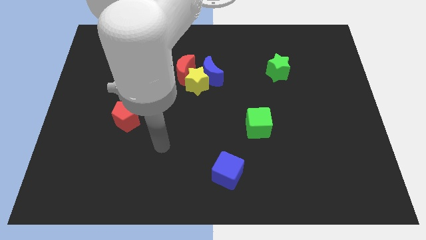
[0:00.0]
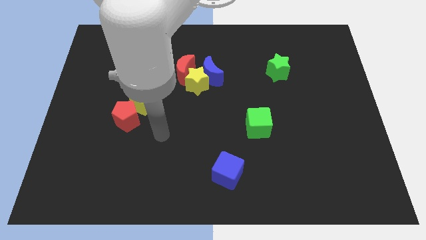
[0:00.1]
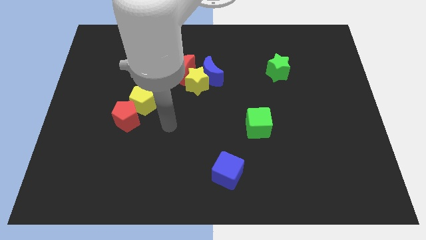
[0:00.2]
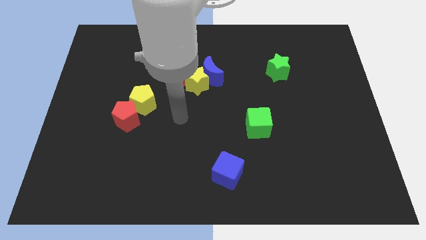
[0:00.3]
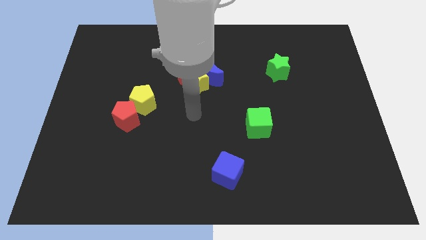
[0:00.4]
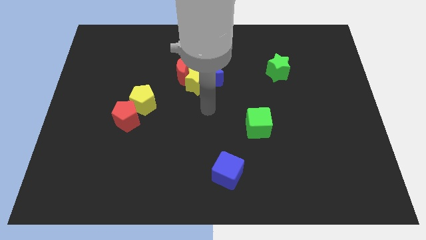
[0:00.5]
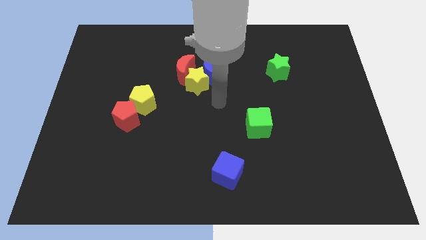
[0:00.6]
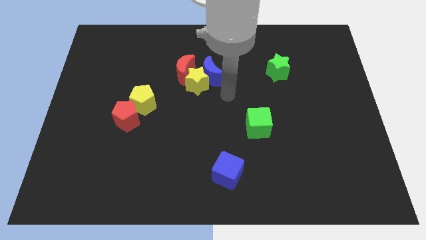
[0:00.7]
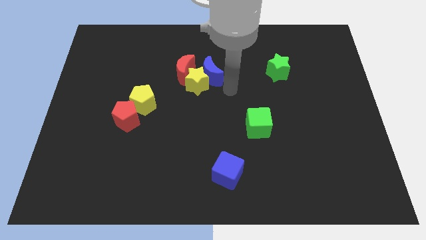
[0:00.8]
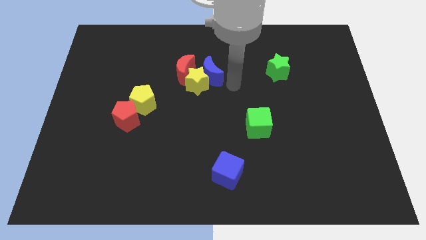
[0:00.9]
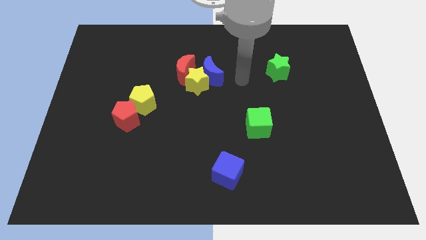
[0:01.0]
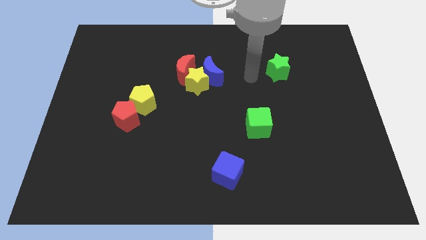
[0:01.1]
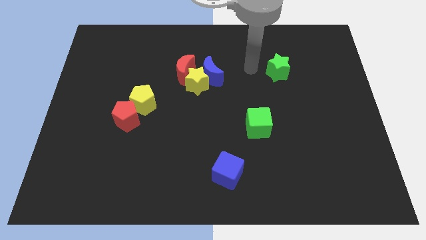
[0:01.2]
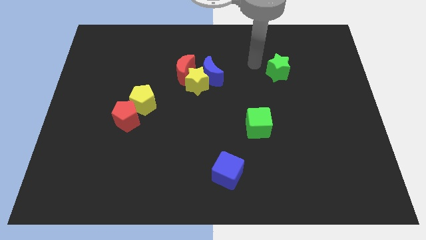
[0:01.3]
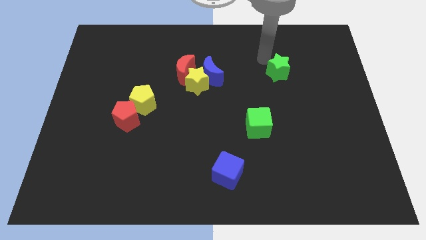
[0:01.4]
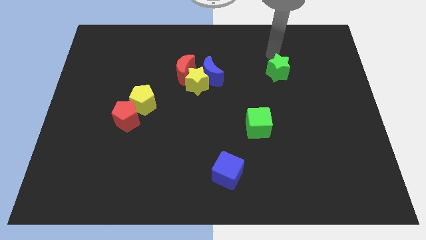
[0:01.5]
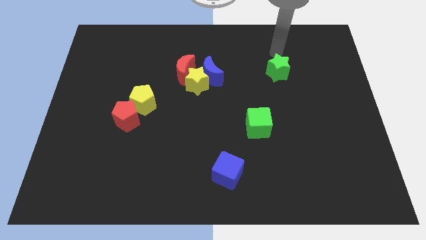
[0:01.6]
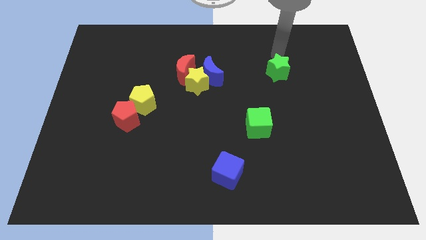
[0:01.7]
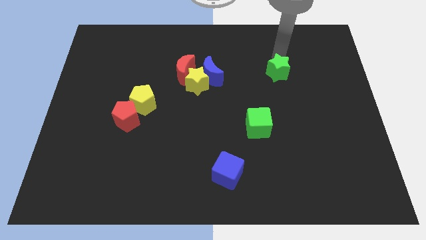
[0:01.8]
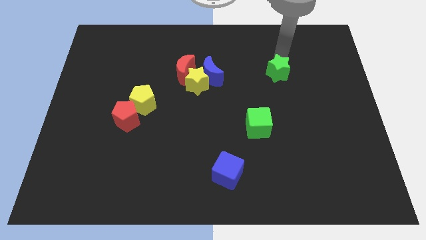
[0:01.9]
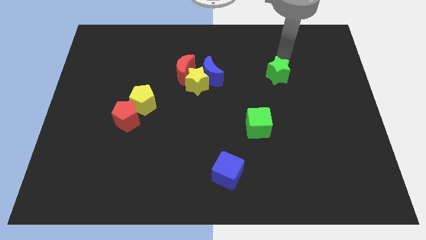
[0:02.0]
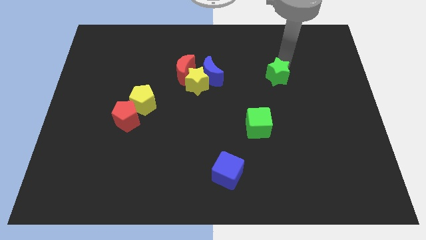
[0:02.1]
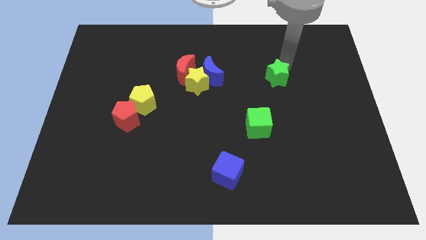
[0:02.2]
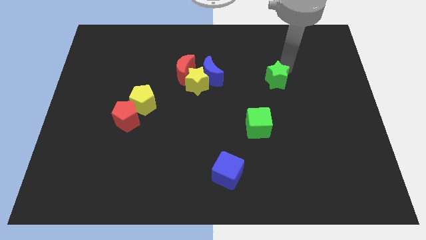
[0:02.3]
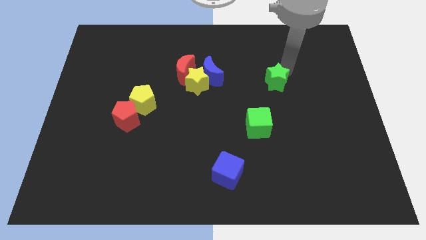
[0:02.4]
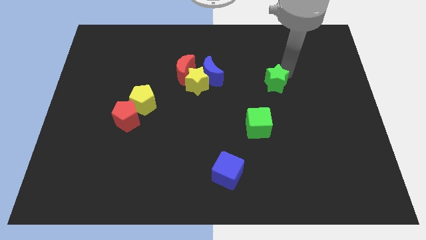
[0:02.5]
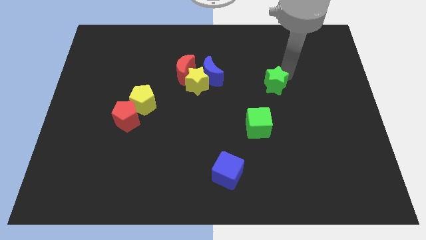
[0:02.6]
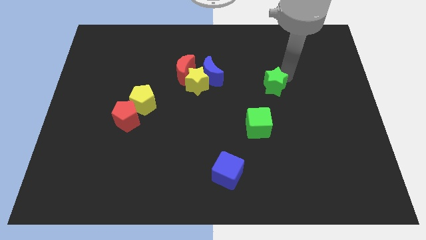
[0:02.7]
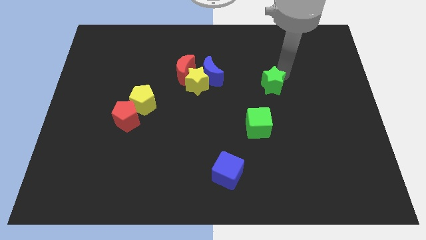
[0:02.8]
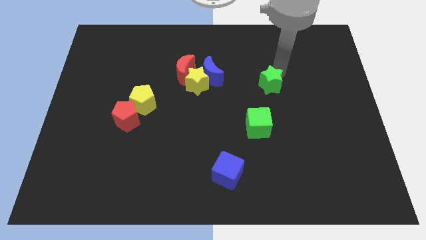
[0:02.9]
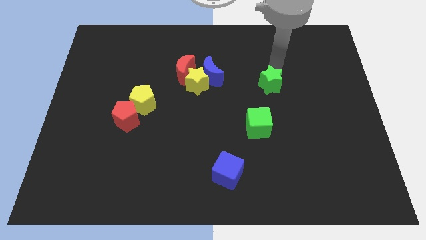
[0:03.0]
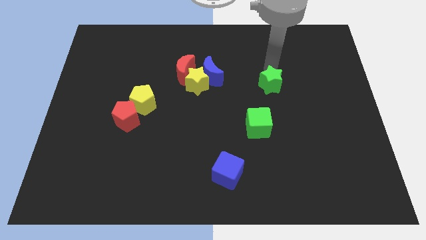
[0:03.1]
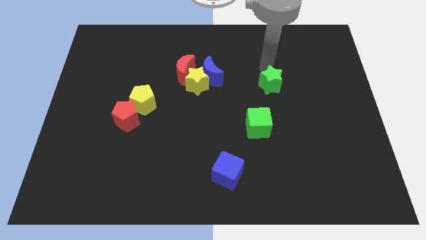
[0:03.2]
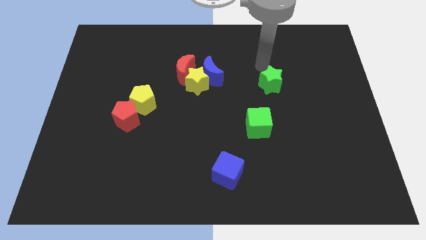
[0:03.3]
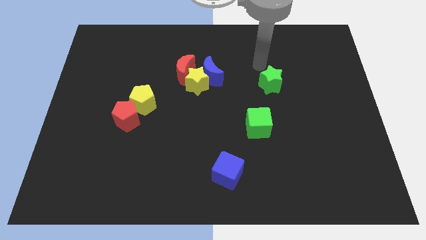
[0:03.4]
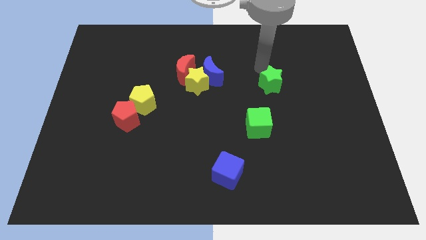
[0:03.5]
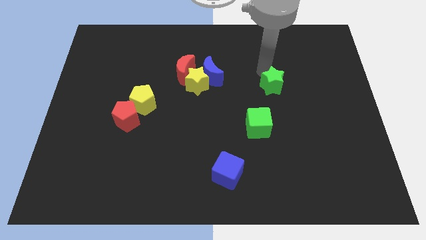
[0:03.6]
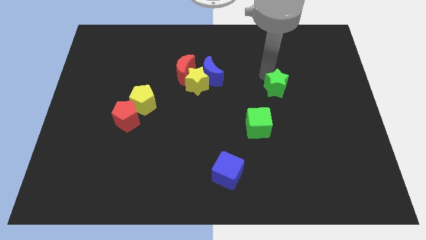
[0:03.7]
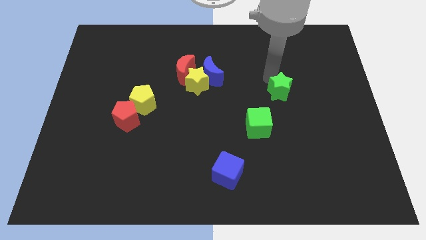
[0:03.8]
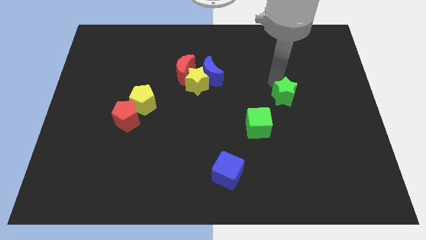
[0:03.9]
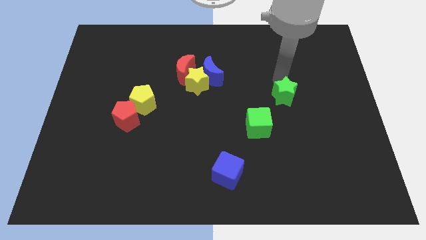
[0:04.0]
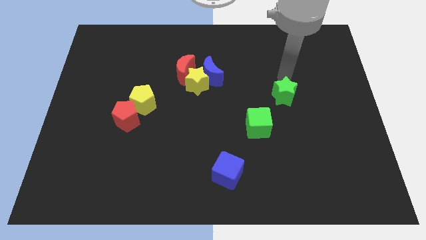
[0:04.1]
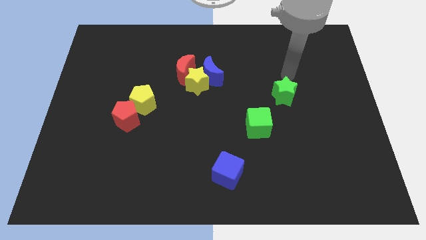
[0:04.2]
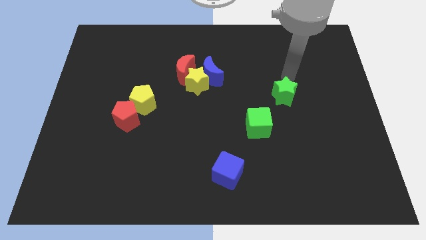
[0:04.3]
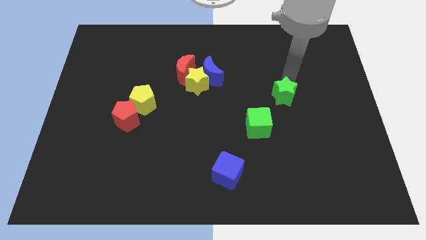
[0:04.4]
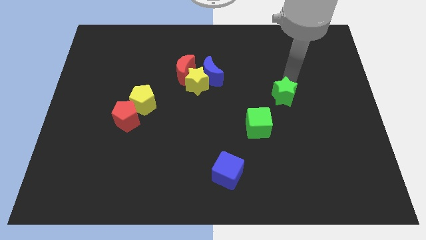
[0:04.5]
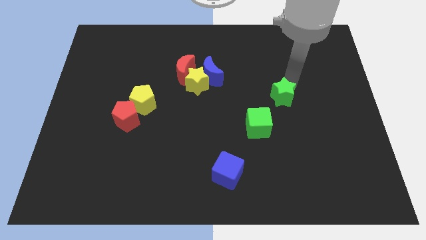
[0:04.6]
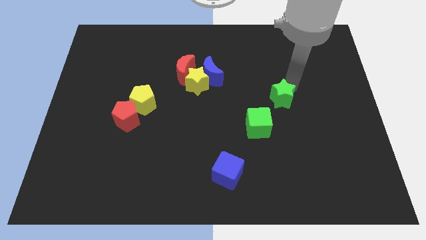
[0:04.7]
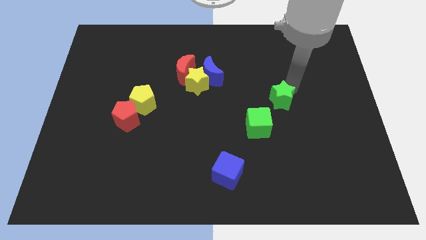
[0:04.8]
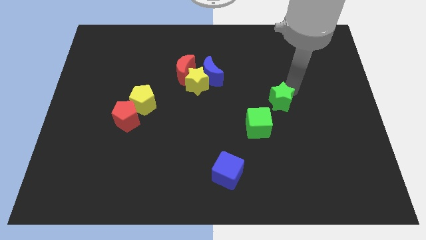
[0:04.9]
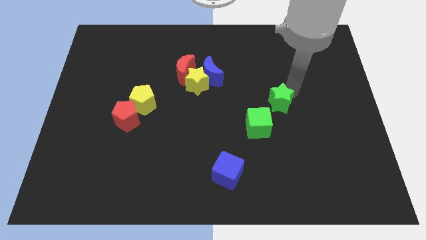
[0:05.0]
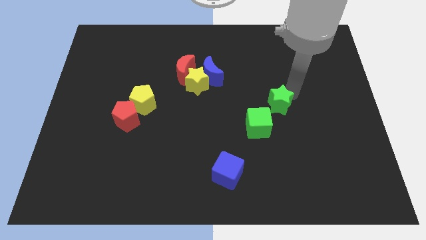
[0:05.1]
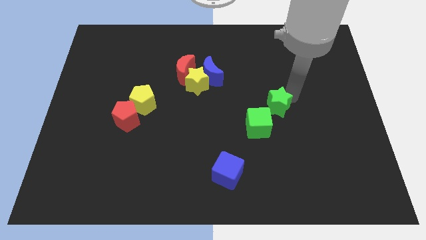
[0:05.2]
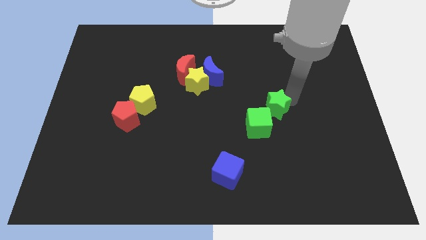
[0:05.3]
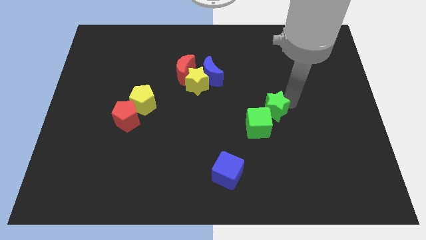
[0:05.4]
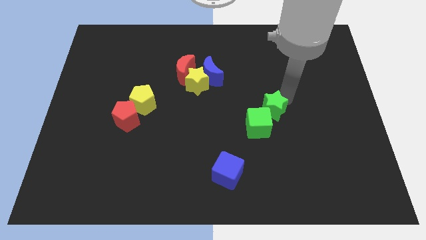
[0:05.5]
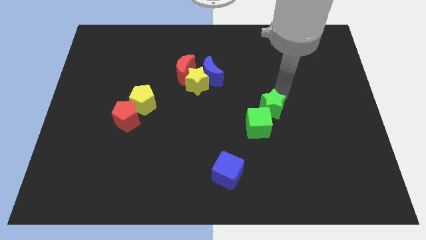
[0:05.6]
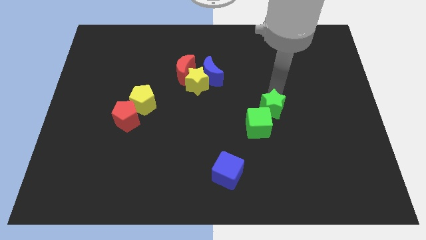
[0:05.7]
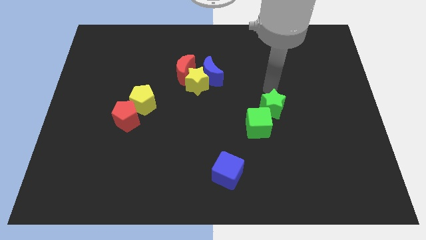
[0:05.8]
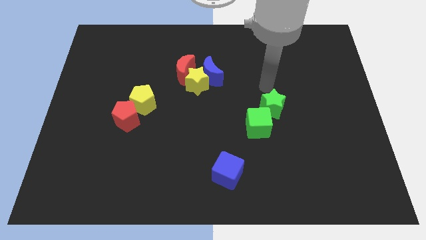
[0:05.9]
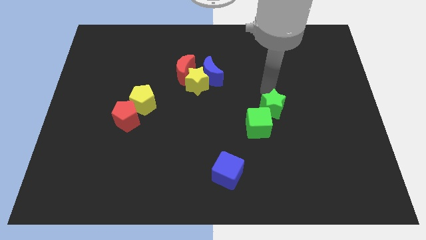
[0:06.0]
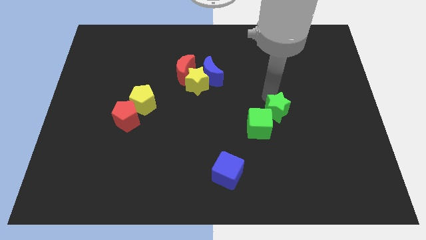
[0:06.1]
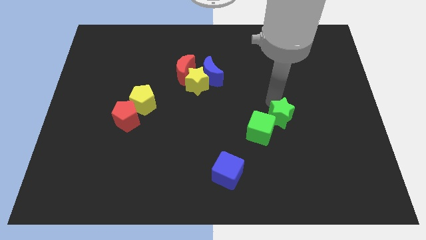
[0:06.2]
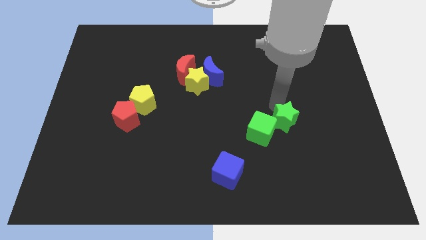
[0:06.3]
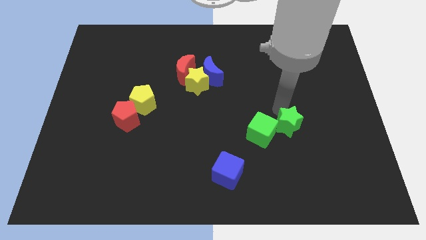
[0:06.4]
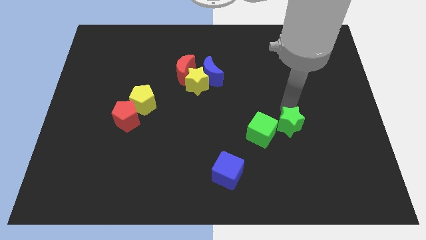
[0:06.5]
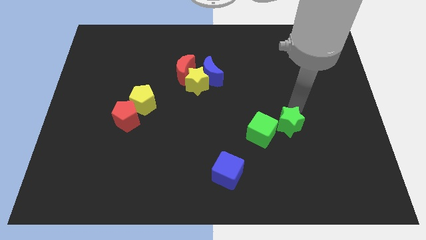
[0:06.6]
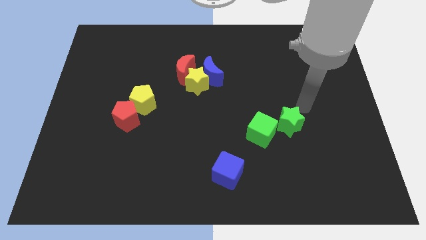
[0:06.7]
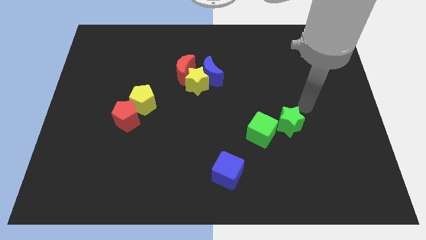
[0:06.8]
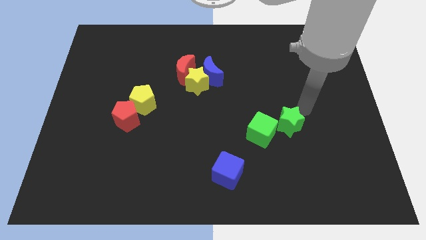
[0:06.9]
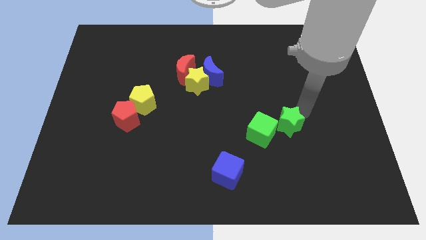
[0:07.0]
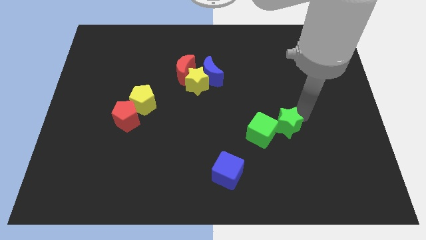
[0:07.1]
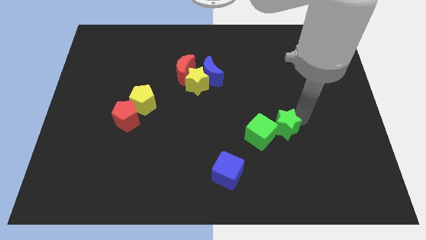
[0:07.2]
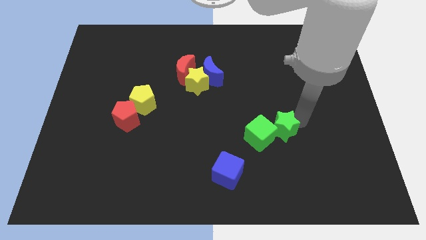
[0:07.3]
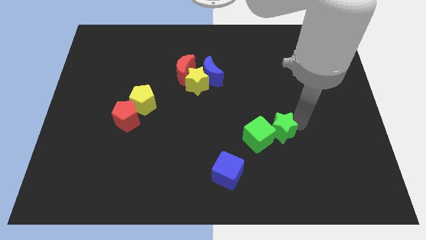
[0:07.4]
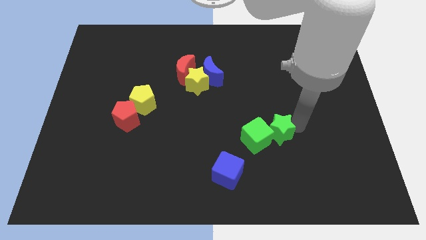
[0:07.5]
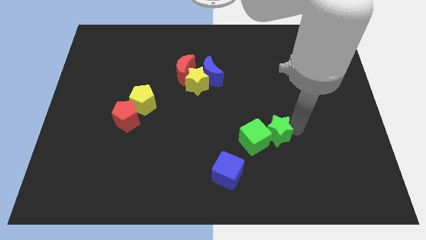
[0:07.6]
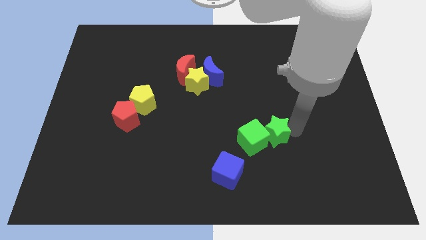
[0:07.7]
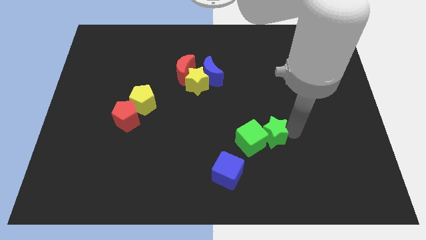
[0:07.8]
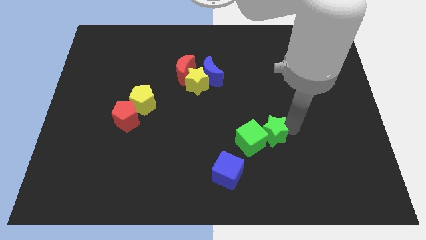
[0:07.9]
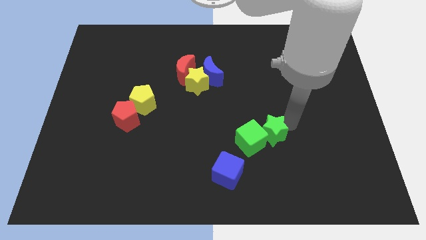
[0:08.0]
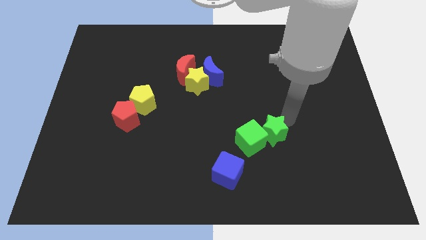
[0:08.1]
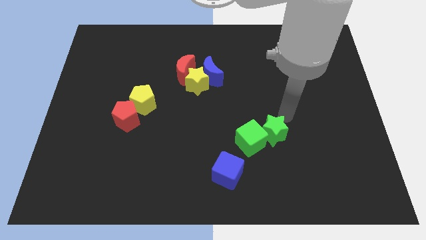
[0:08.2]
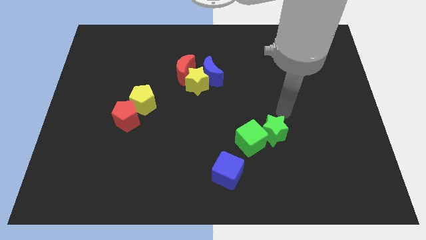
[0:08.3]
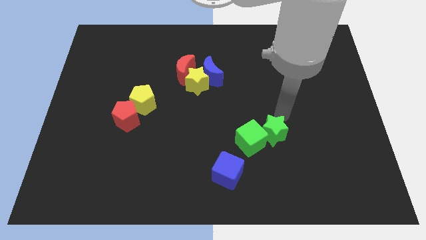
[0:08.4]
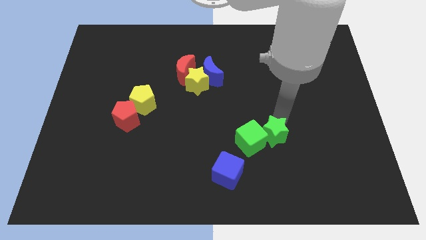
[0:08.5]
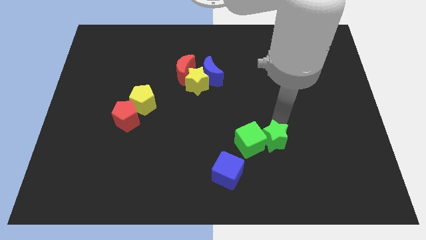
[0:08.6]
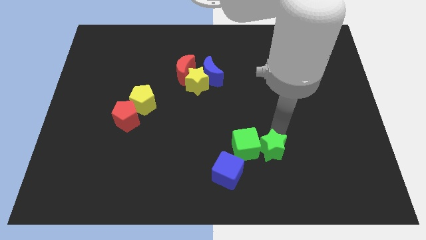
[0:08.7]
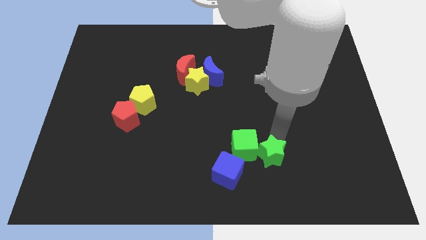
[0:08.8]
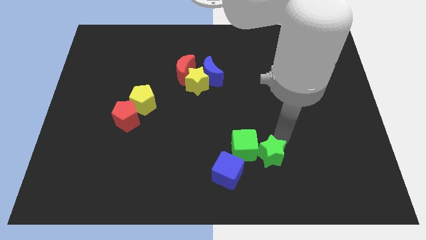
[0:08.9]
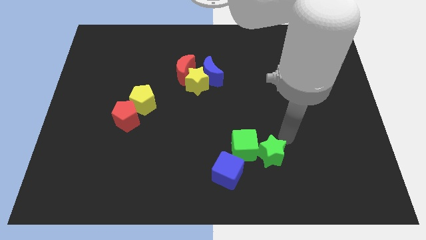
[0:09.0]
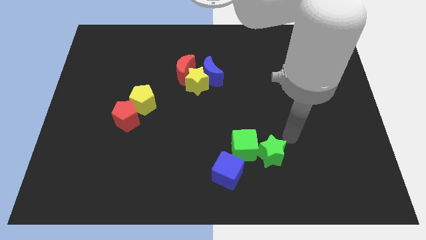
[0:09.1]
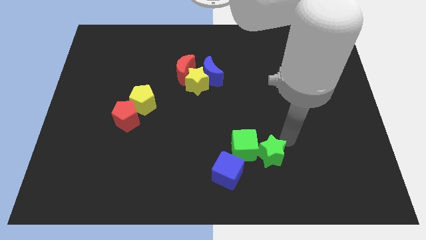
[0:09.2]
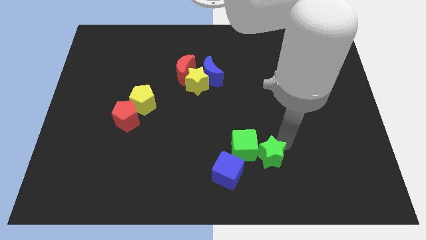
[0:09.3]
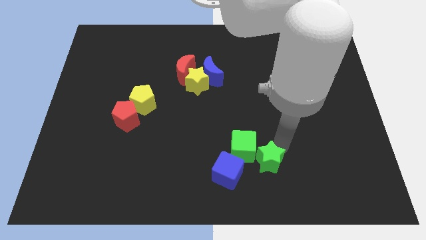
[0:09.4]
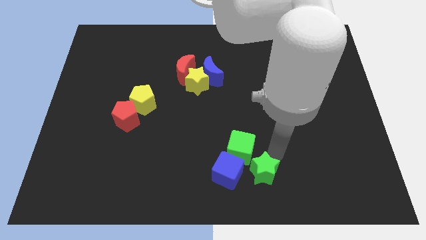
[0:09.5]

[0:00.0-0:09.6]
put the green star to the bottom side
